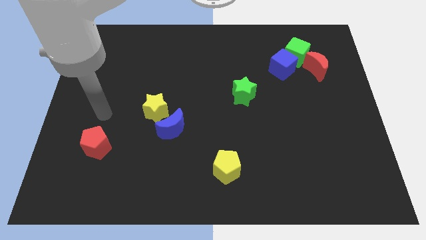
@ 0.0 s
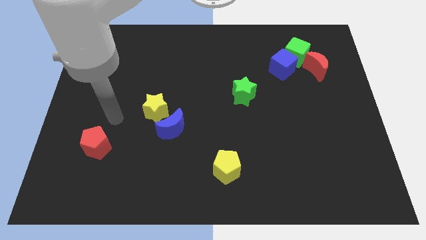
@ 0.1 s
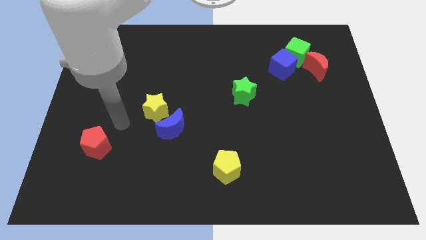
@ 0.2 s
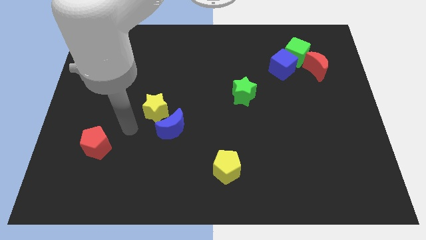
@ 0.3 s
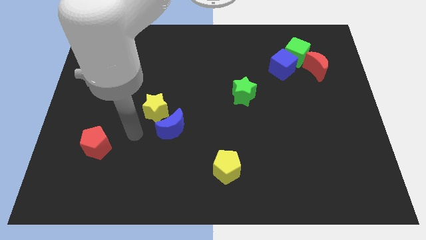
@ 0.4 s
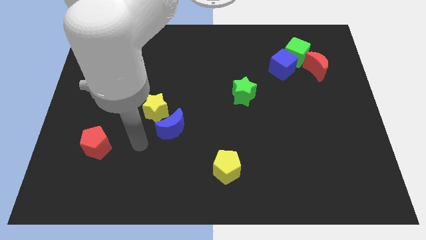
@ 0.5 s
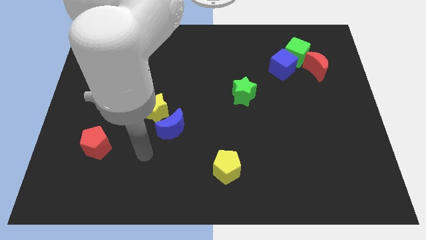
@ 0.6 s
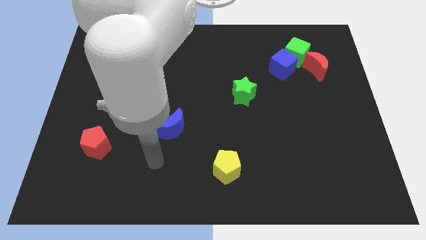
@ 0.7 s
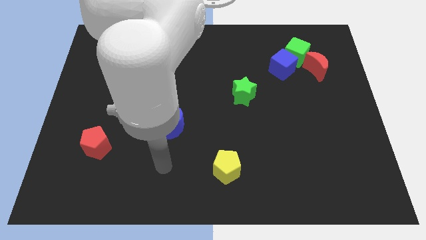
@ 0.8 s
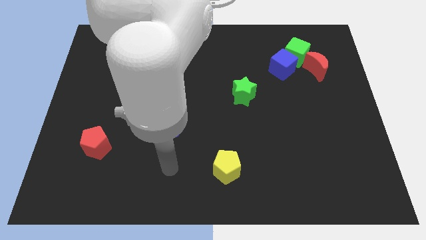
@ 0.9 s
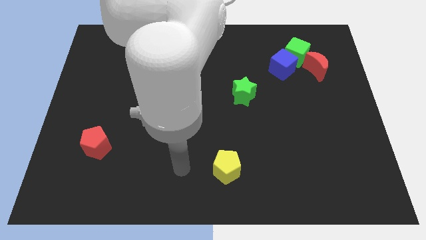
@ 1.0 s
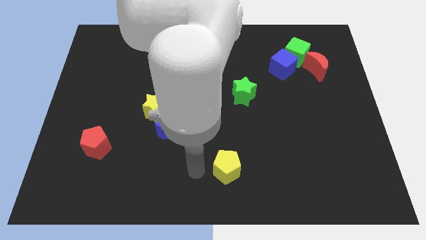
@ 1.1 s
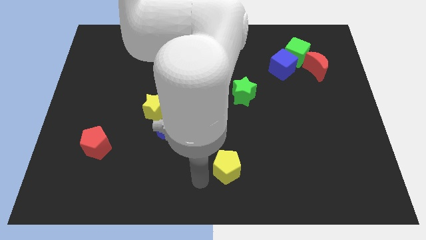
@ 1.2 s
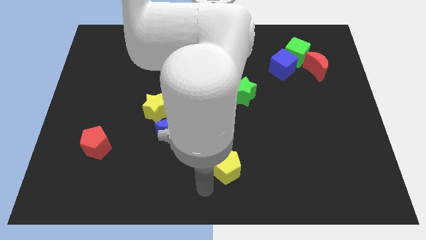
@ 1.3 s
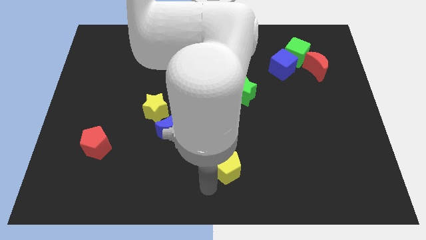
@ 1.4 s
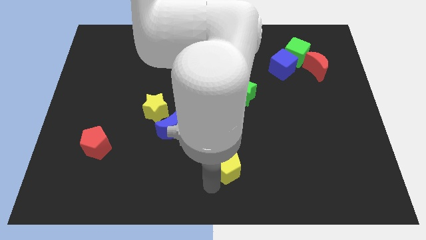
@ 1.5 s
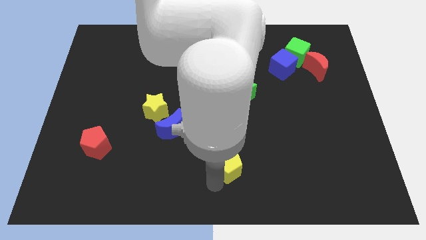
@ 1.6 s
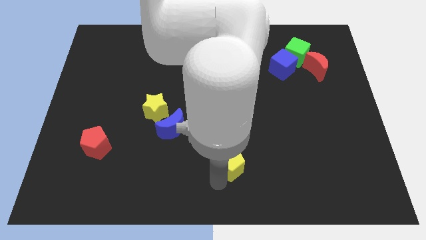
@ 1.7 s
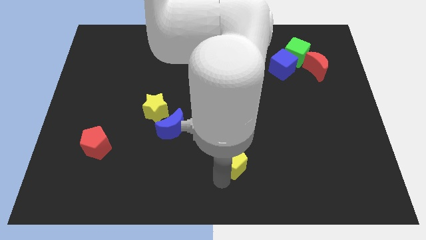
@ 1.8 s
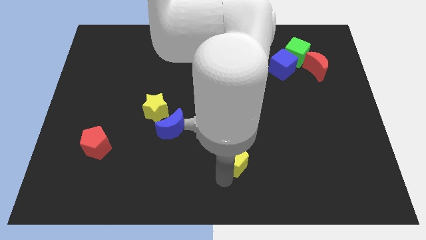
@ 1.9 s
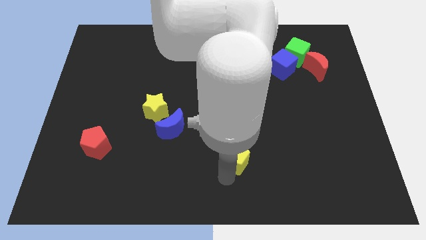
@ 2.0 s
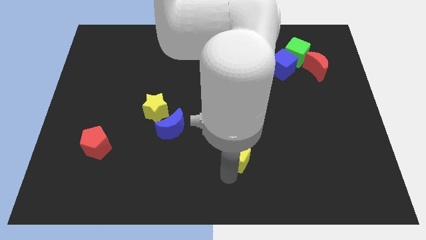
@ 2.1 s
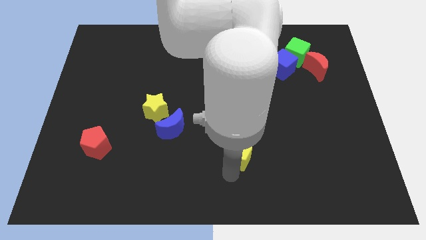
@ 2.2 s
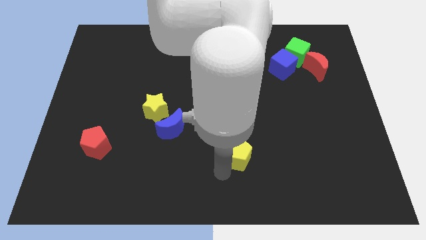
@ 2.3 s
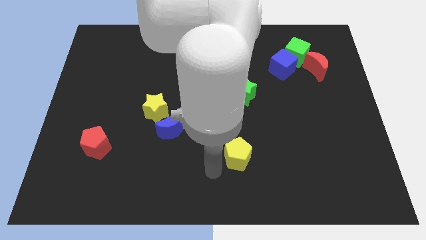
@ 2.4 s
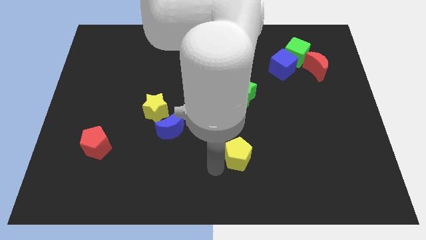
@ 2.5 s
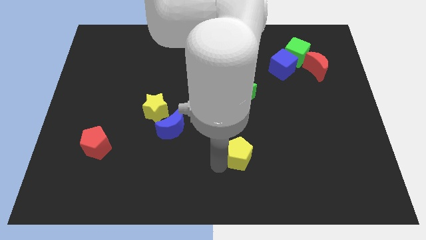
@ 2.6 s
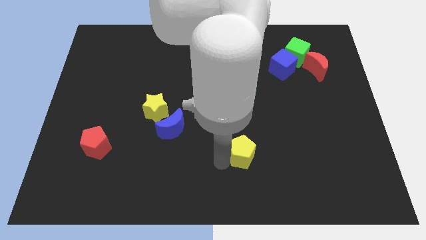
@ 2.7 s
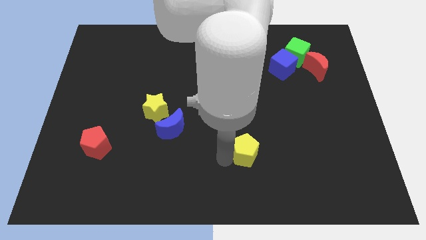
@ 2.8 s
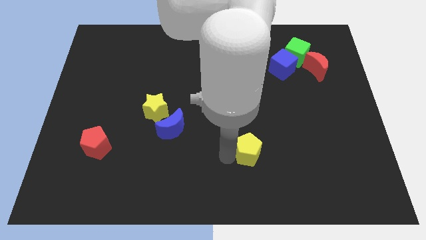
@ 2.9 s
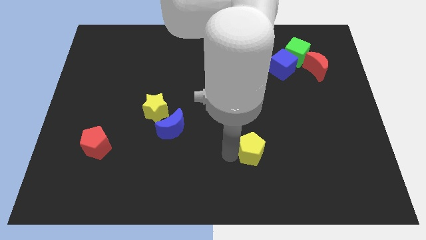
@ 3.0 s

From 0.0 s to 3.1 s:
slightly push the yellow pentagon up and to the right

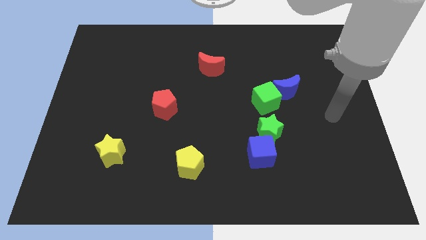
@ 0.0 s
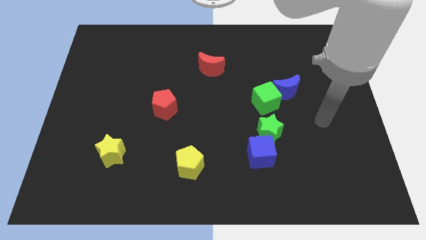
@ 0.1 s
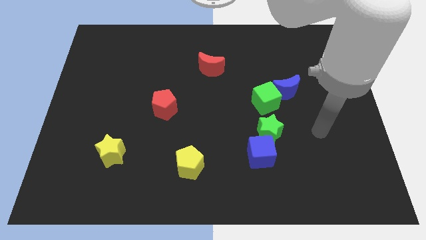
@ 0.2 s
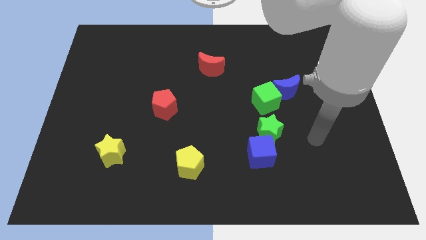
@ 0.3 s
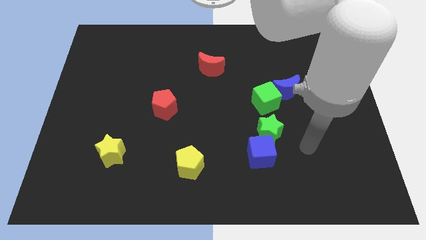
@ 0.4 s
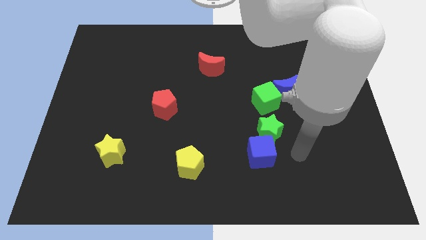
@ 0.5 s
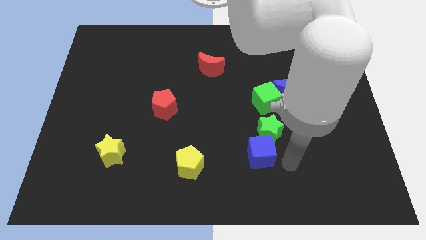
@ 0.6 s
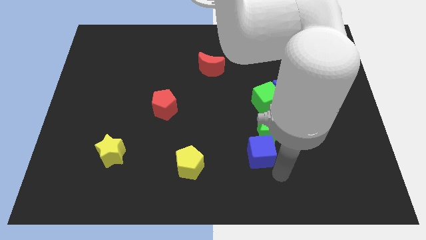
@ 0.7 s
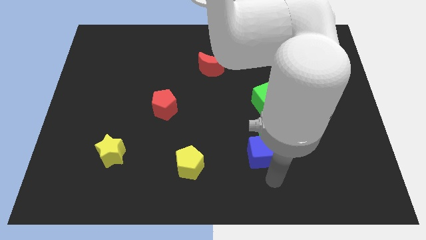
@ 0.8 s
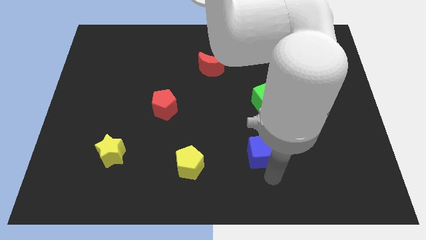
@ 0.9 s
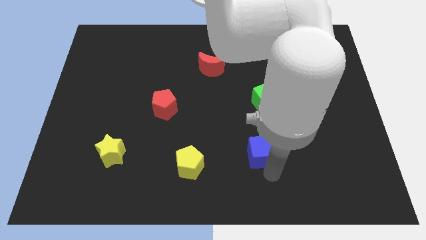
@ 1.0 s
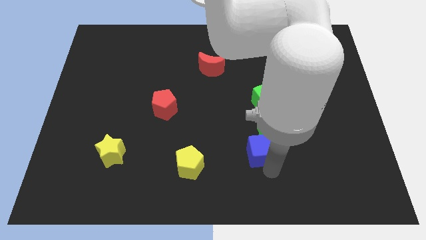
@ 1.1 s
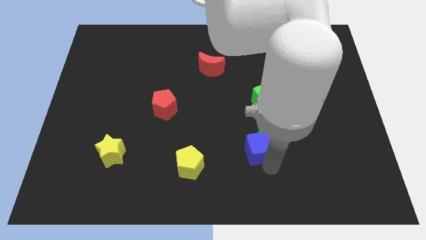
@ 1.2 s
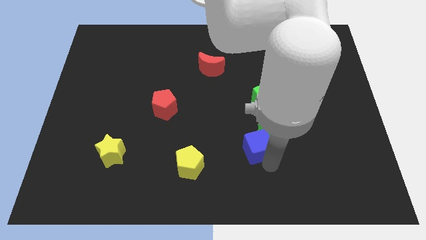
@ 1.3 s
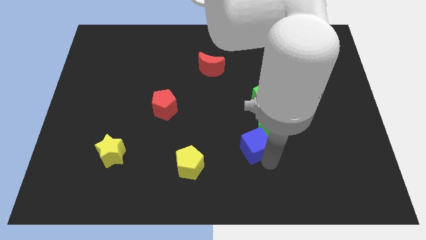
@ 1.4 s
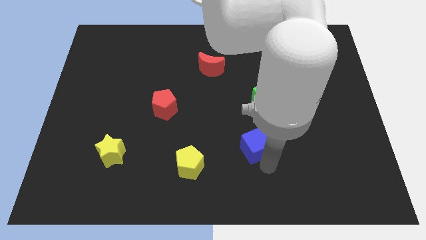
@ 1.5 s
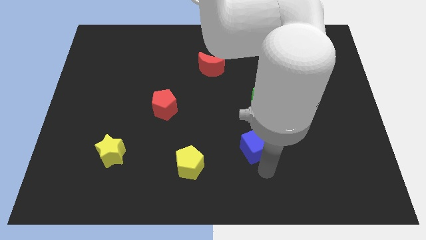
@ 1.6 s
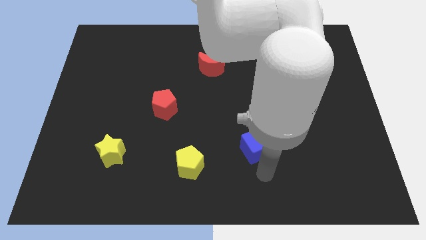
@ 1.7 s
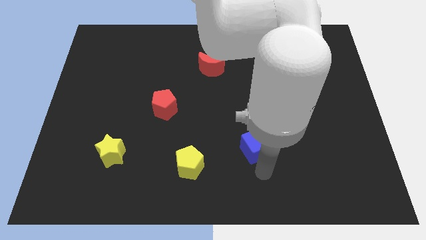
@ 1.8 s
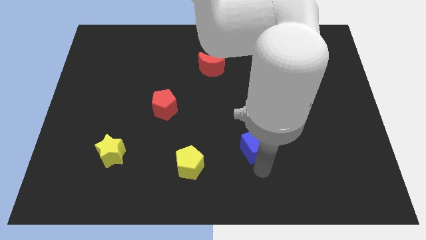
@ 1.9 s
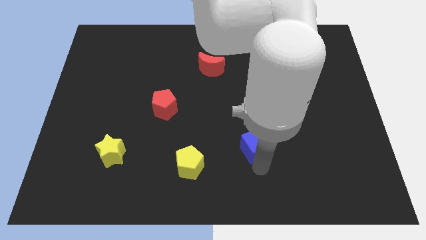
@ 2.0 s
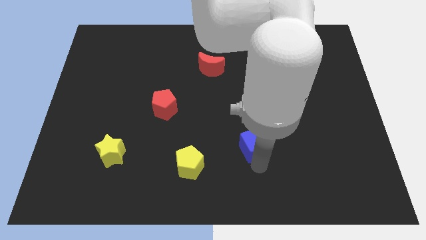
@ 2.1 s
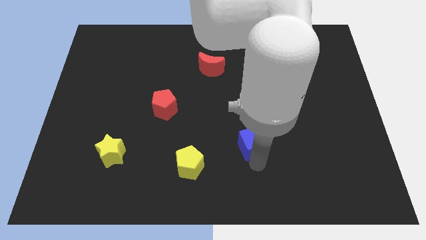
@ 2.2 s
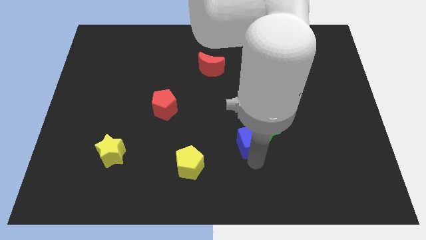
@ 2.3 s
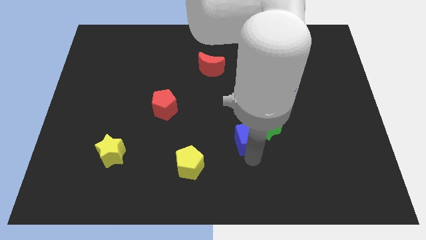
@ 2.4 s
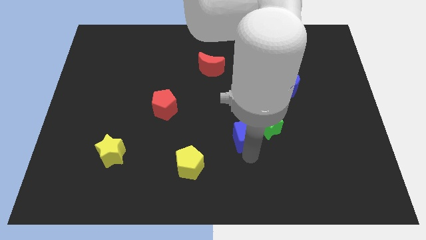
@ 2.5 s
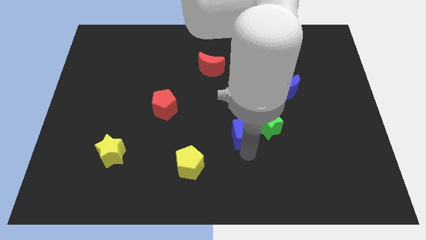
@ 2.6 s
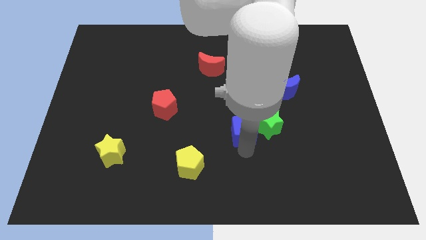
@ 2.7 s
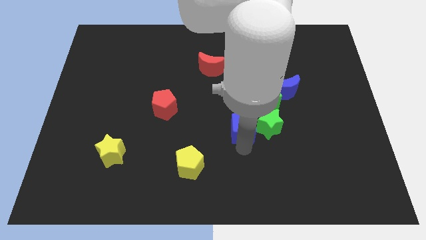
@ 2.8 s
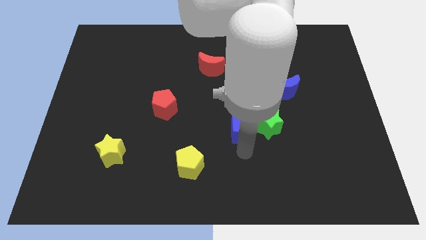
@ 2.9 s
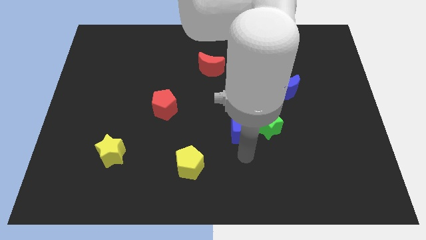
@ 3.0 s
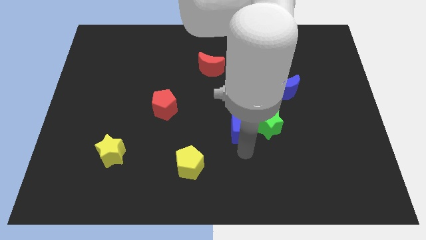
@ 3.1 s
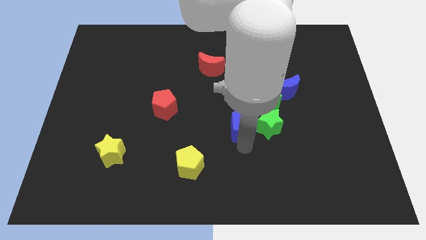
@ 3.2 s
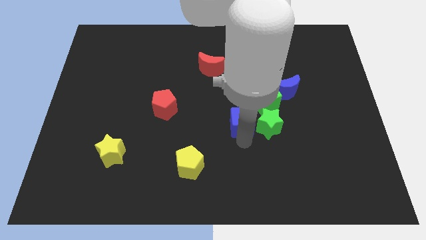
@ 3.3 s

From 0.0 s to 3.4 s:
slide the blue cube a bit up

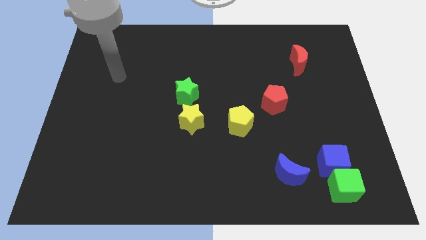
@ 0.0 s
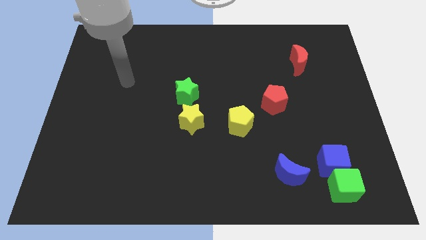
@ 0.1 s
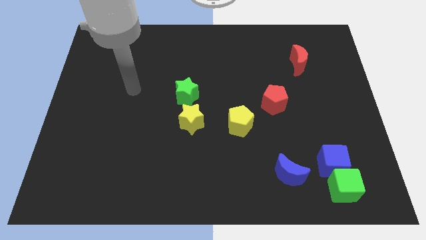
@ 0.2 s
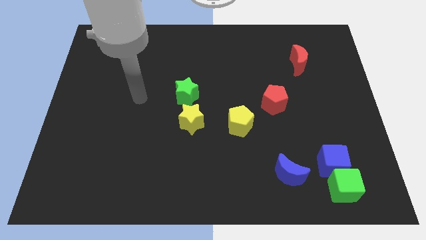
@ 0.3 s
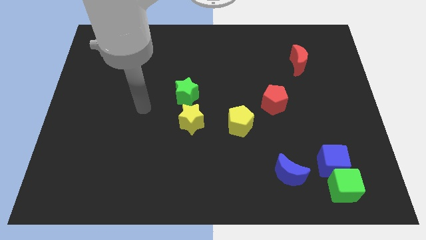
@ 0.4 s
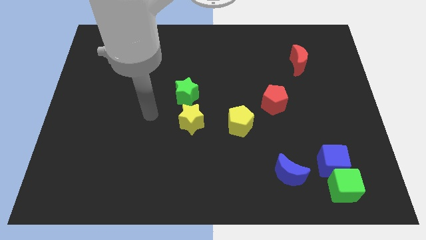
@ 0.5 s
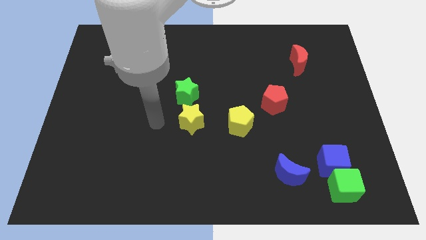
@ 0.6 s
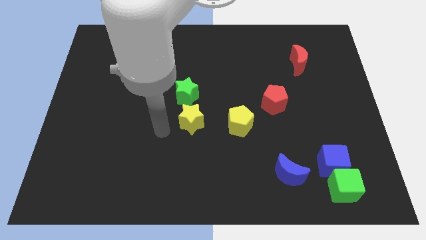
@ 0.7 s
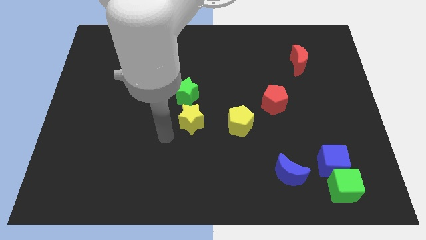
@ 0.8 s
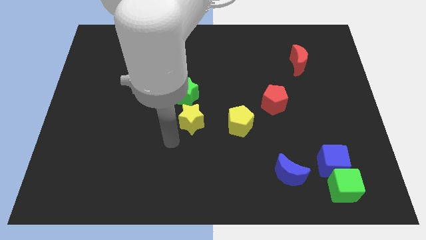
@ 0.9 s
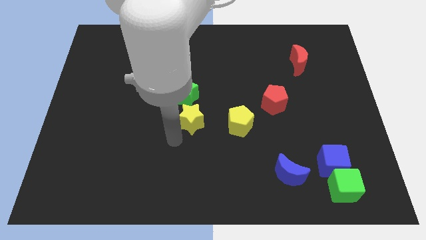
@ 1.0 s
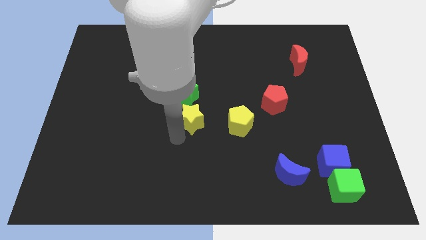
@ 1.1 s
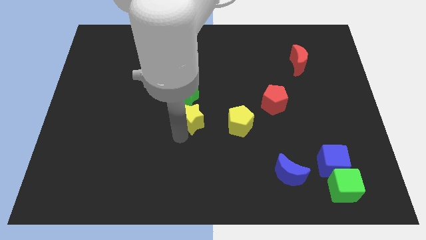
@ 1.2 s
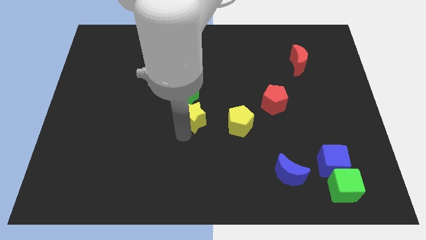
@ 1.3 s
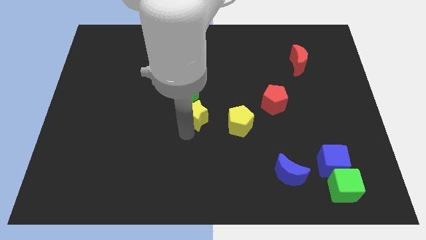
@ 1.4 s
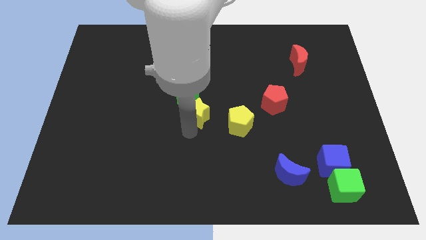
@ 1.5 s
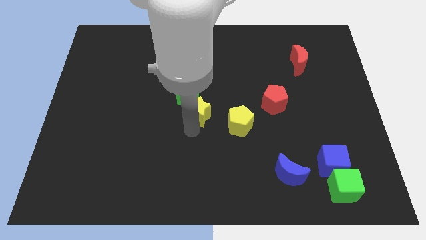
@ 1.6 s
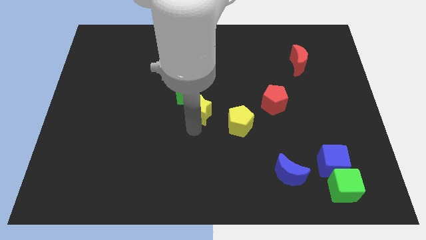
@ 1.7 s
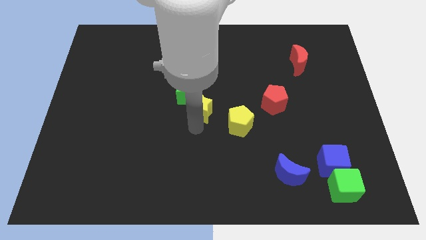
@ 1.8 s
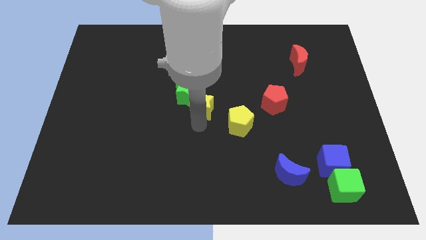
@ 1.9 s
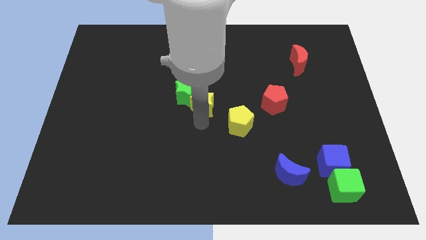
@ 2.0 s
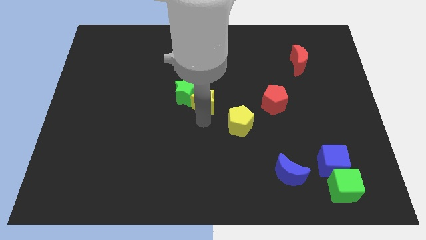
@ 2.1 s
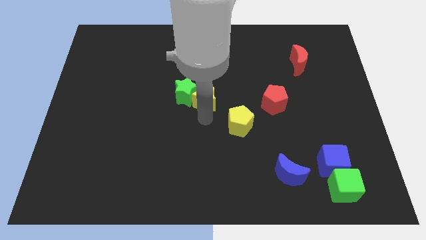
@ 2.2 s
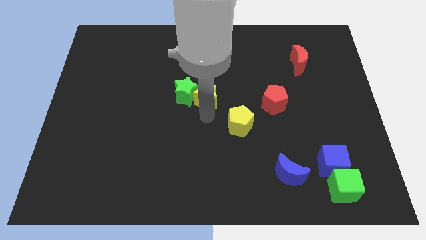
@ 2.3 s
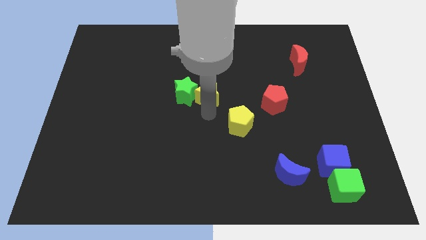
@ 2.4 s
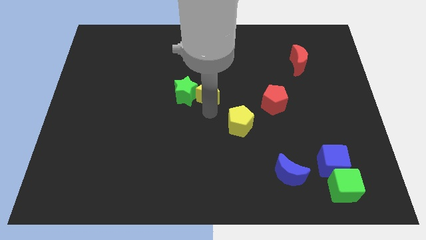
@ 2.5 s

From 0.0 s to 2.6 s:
slide the yellow star upwards a little
